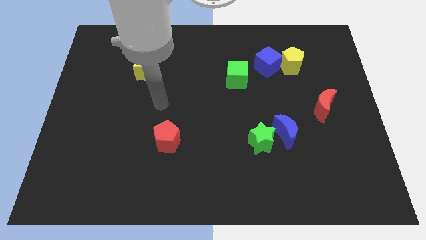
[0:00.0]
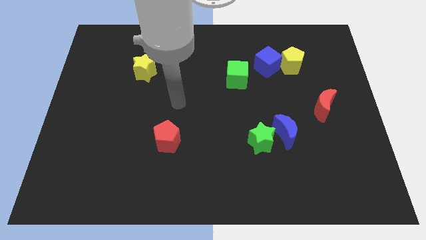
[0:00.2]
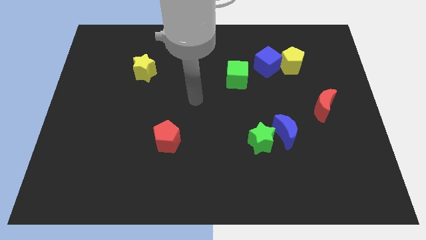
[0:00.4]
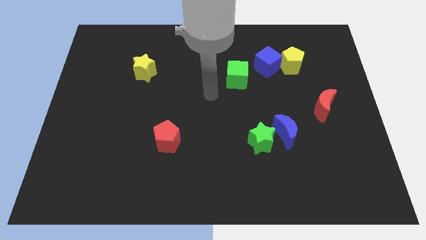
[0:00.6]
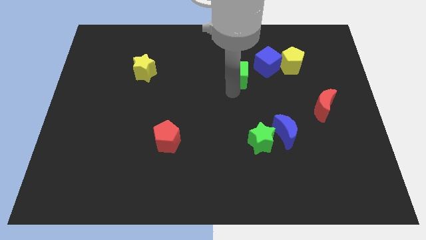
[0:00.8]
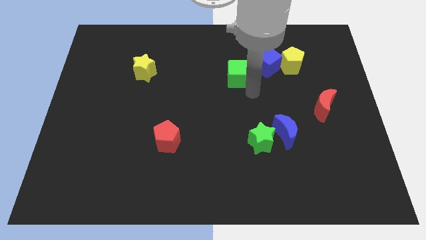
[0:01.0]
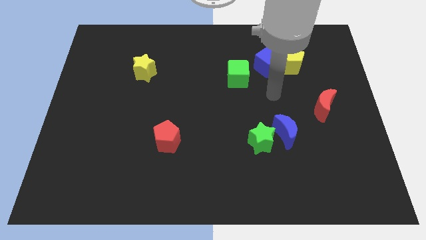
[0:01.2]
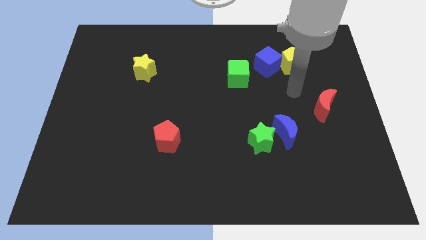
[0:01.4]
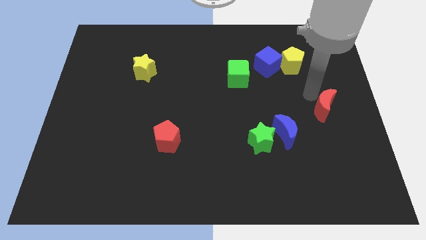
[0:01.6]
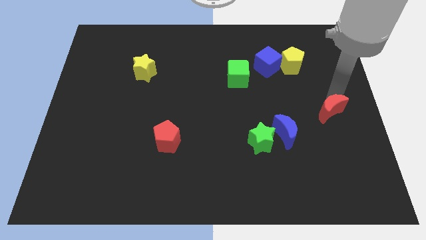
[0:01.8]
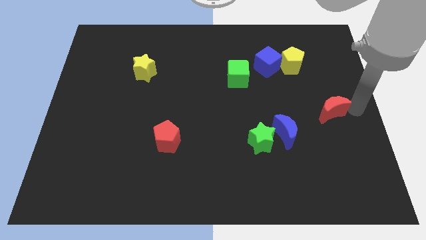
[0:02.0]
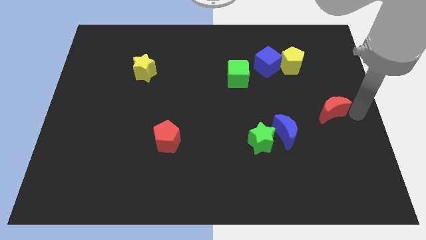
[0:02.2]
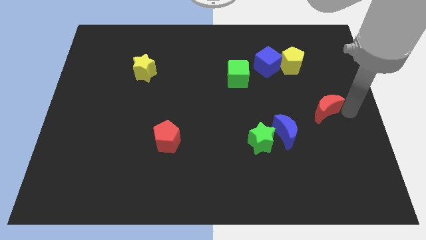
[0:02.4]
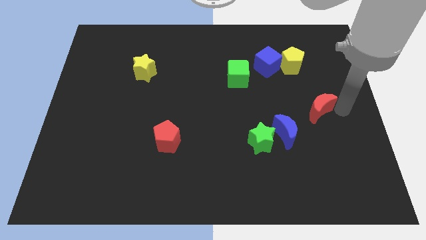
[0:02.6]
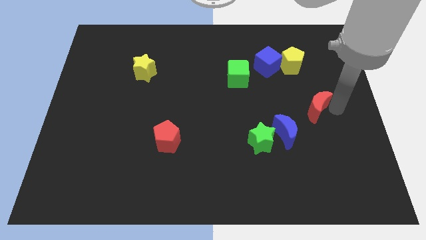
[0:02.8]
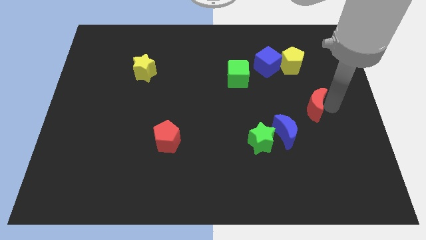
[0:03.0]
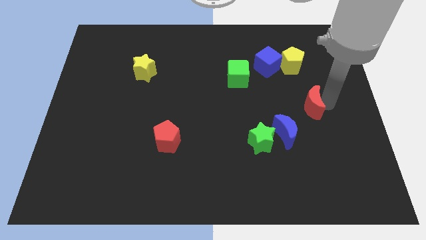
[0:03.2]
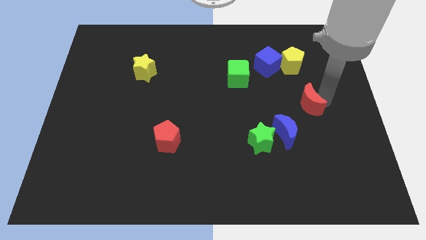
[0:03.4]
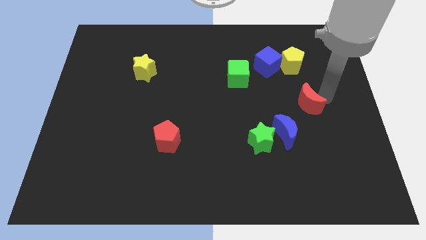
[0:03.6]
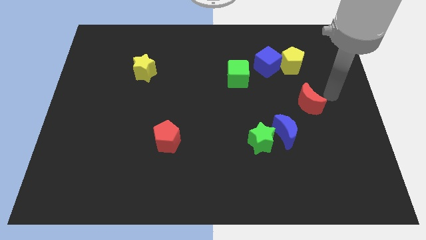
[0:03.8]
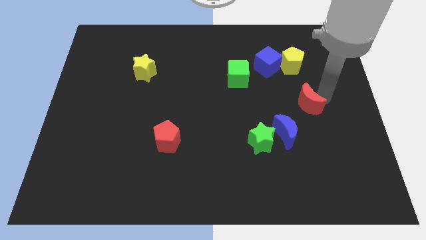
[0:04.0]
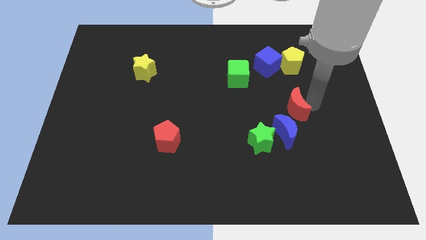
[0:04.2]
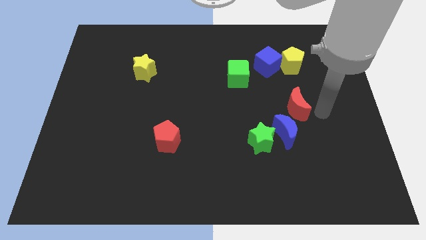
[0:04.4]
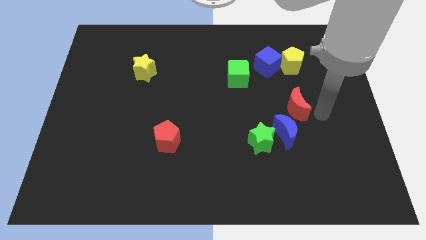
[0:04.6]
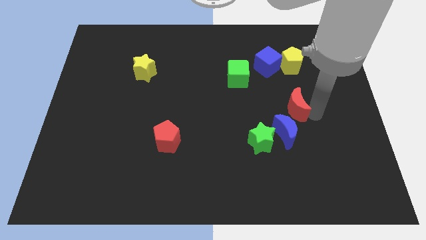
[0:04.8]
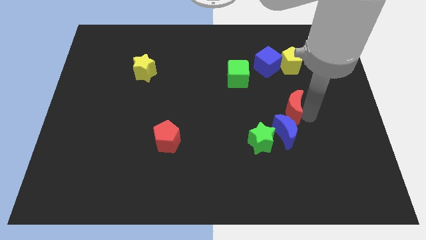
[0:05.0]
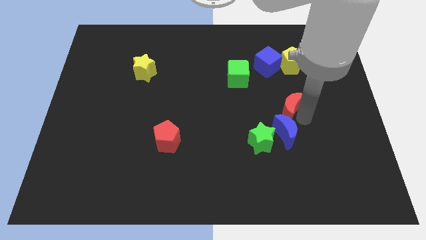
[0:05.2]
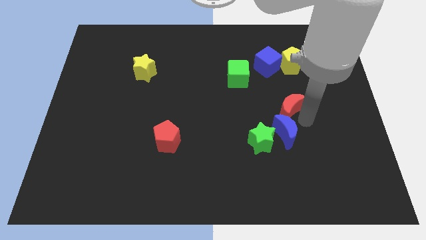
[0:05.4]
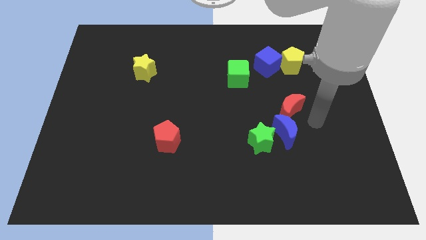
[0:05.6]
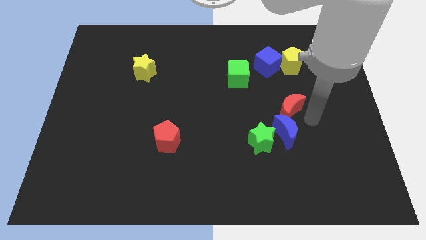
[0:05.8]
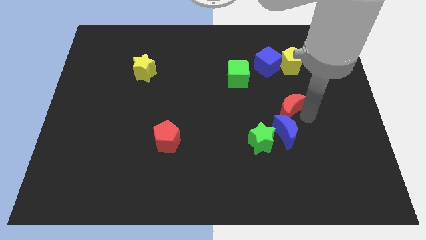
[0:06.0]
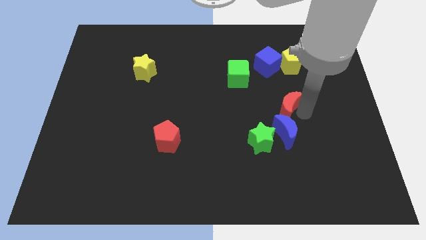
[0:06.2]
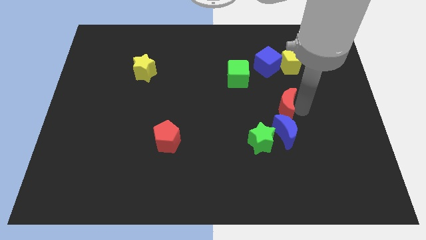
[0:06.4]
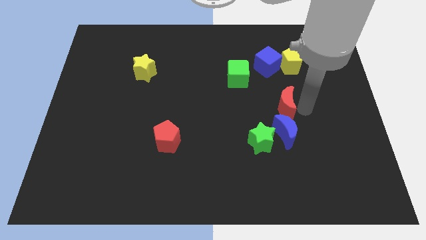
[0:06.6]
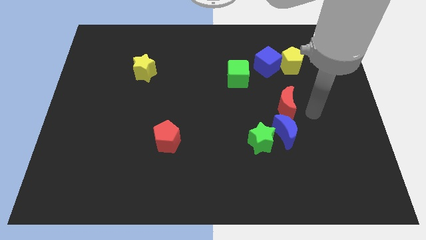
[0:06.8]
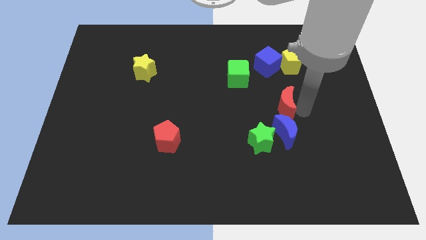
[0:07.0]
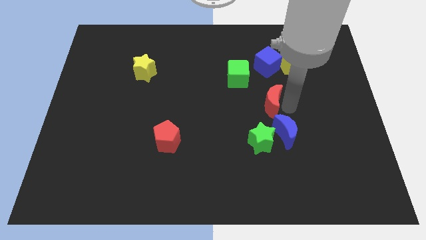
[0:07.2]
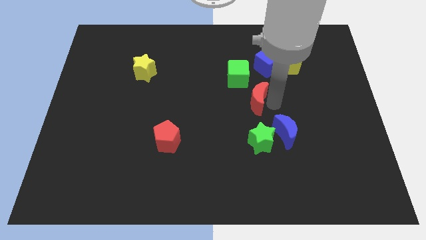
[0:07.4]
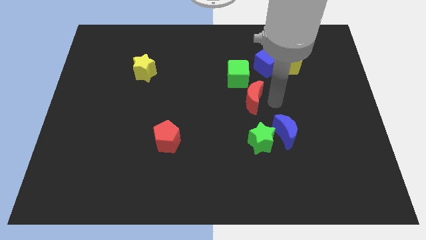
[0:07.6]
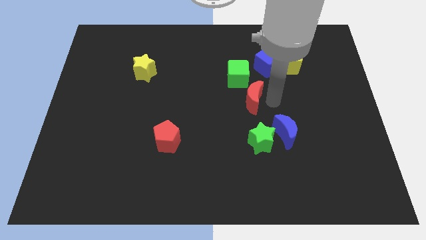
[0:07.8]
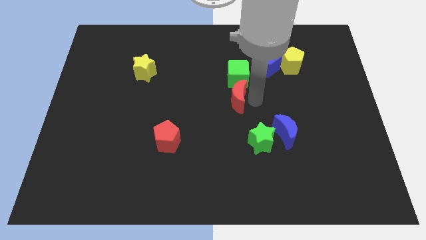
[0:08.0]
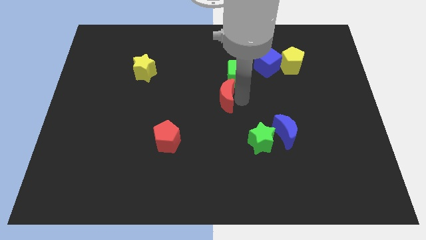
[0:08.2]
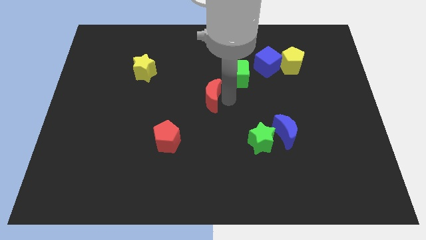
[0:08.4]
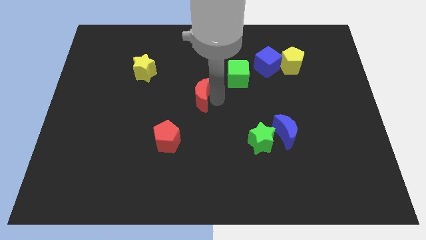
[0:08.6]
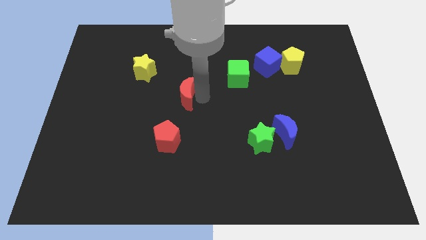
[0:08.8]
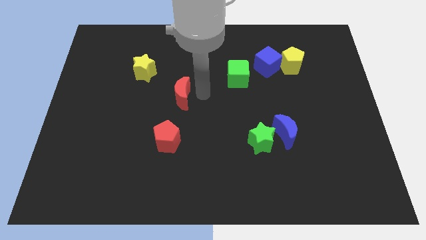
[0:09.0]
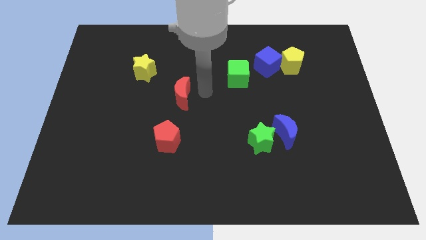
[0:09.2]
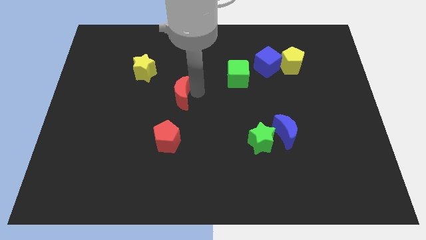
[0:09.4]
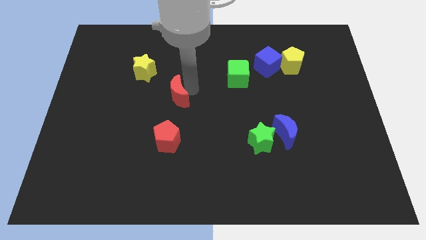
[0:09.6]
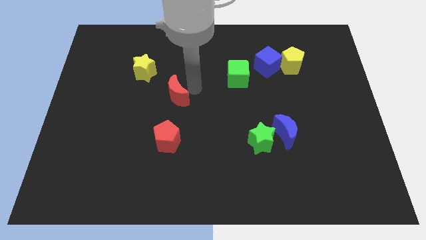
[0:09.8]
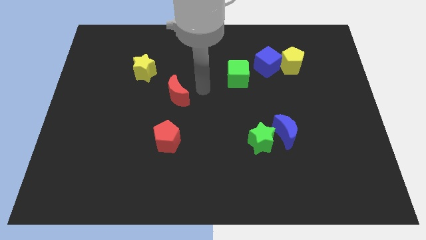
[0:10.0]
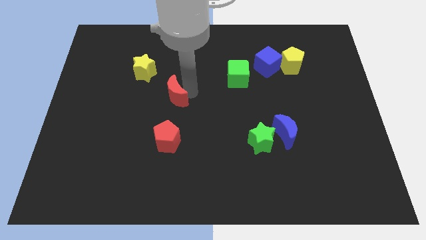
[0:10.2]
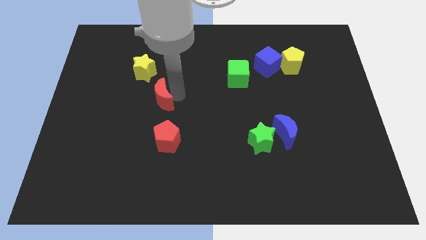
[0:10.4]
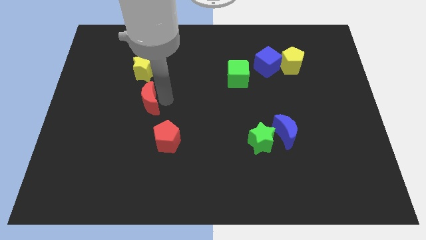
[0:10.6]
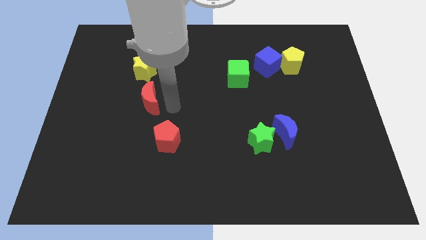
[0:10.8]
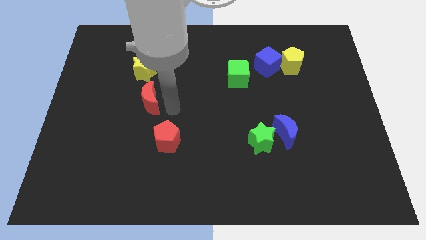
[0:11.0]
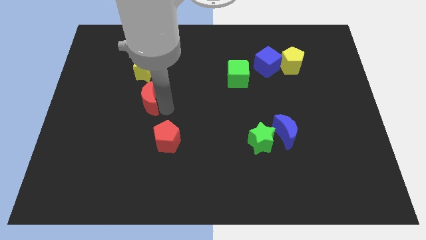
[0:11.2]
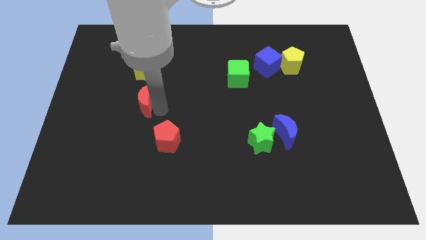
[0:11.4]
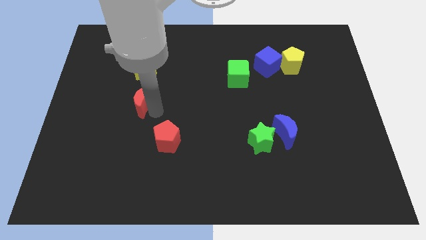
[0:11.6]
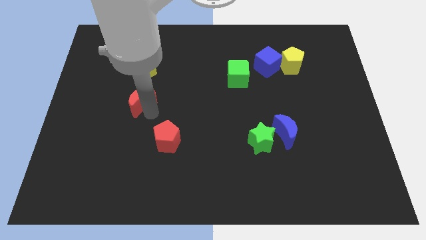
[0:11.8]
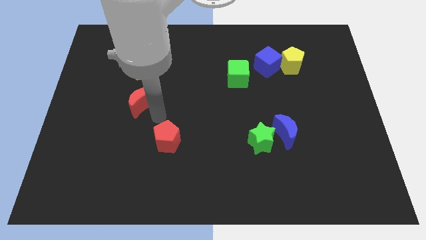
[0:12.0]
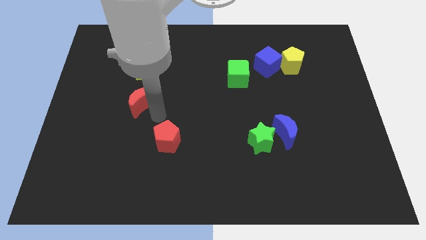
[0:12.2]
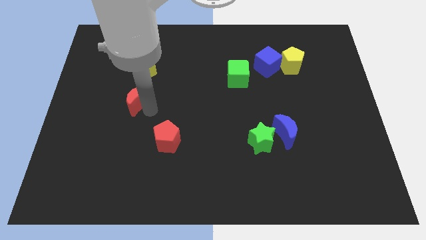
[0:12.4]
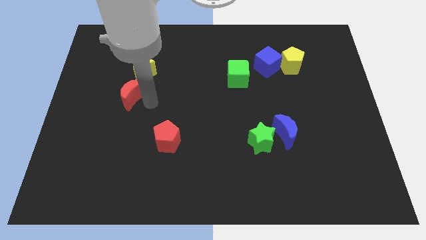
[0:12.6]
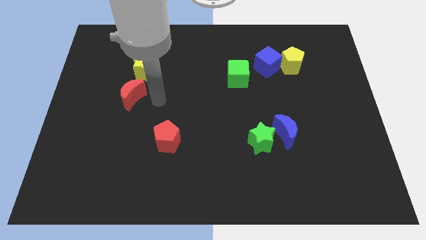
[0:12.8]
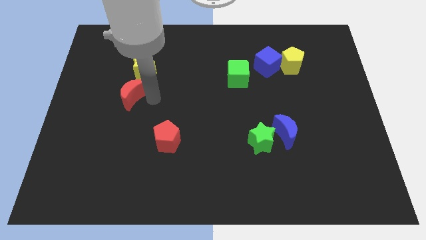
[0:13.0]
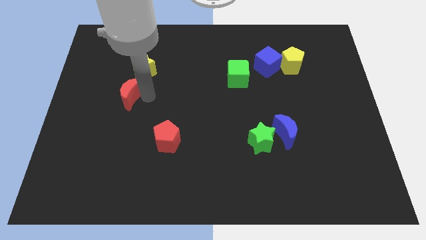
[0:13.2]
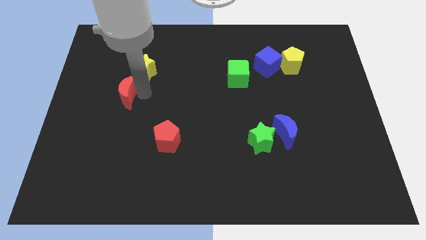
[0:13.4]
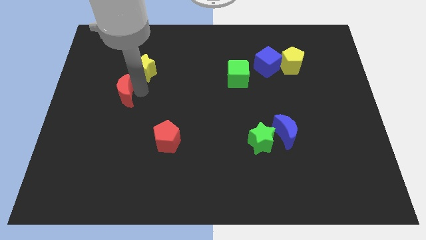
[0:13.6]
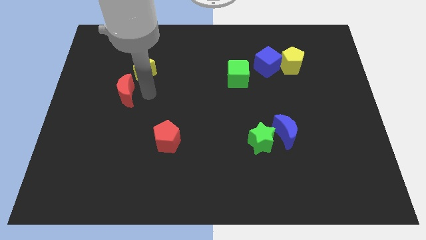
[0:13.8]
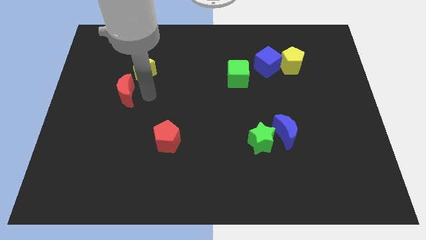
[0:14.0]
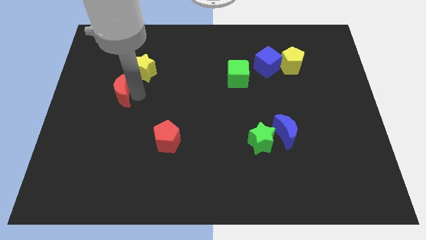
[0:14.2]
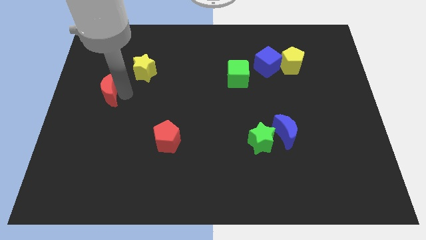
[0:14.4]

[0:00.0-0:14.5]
put the red moon to the left side of the board

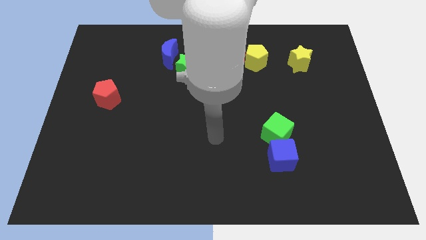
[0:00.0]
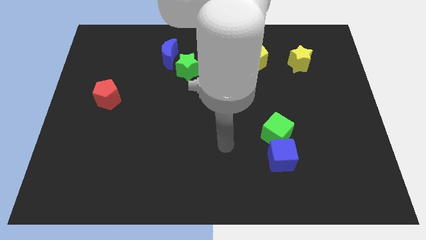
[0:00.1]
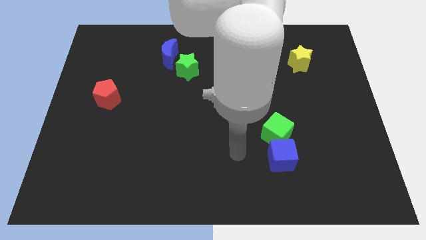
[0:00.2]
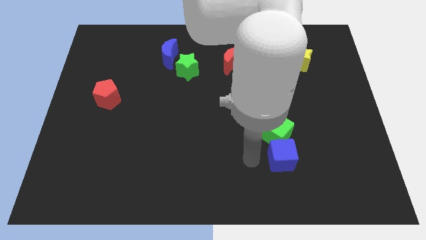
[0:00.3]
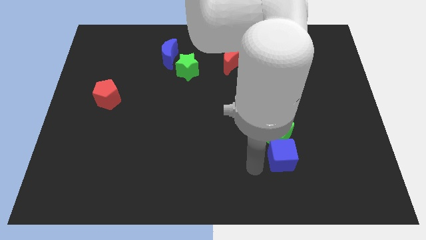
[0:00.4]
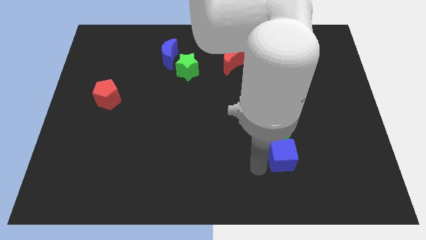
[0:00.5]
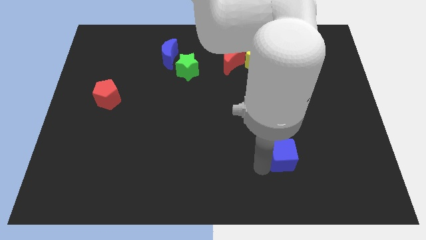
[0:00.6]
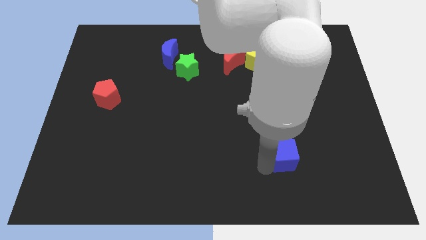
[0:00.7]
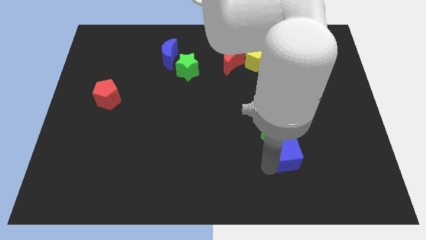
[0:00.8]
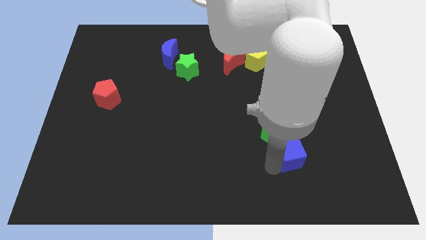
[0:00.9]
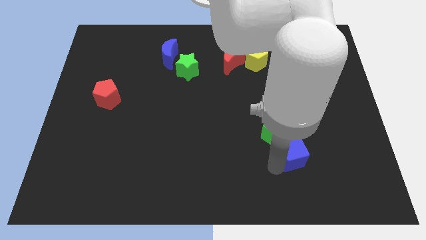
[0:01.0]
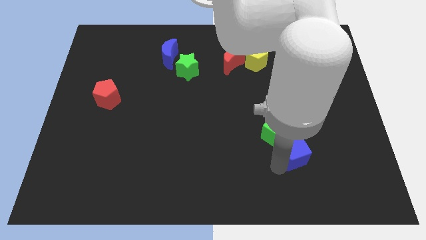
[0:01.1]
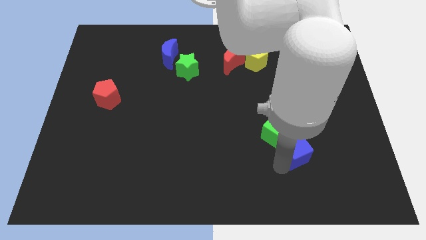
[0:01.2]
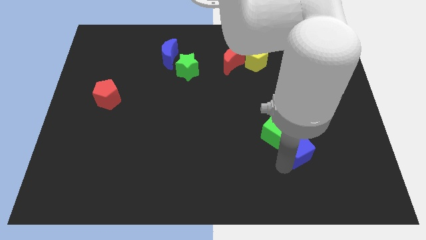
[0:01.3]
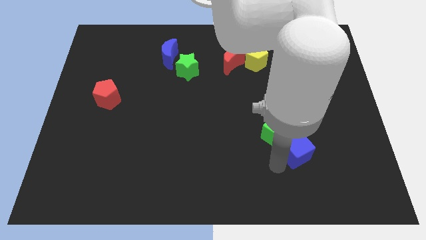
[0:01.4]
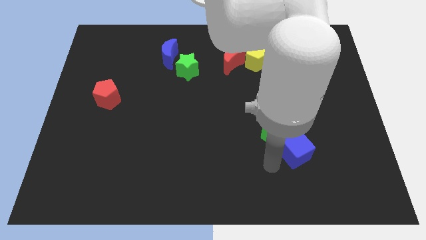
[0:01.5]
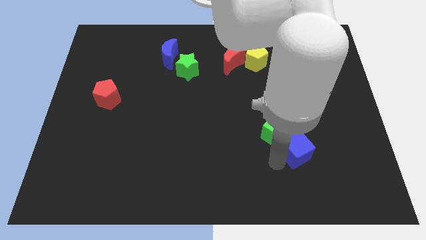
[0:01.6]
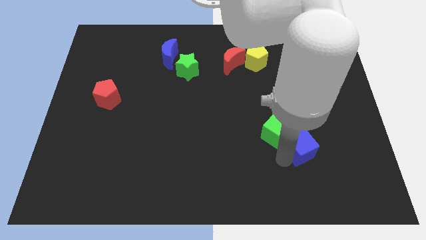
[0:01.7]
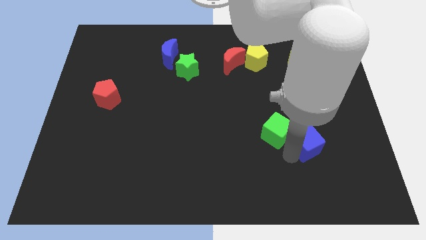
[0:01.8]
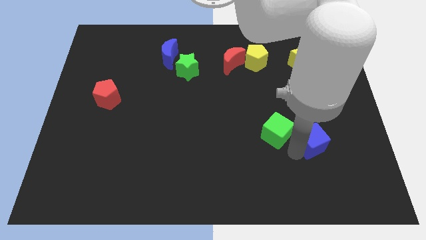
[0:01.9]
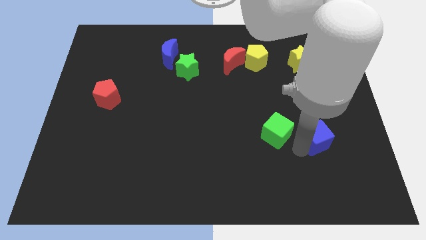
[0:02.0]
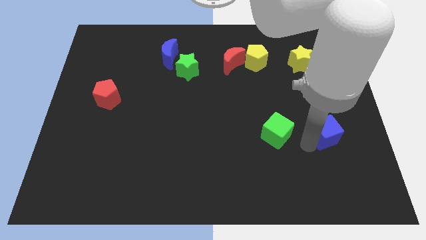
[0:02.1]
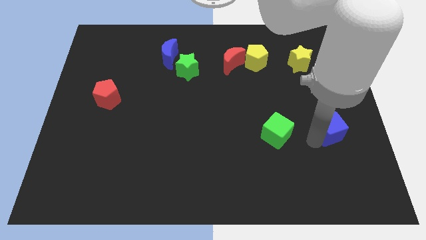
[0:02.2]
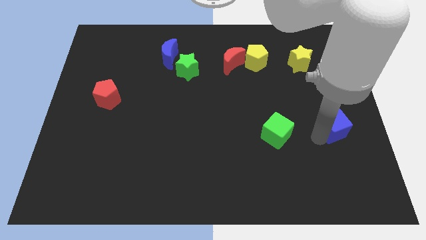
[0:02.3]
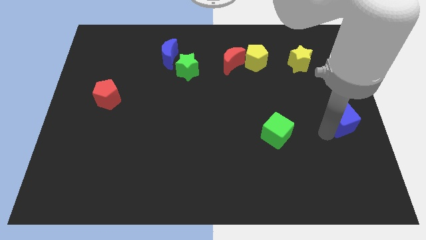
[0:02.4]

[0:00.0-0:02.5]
push the blue cube to the right side
